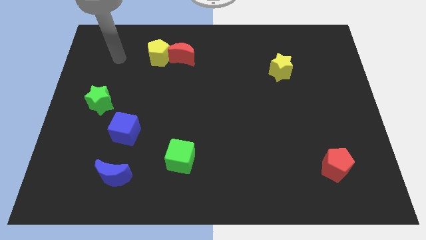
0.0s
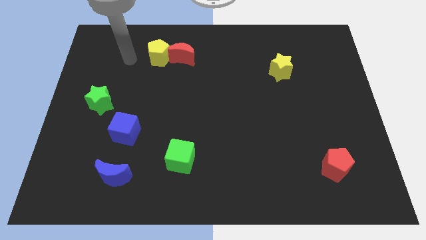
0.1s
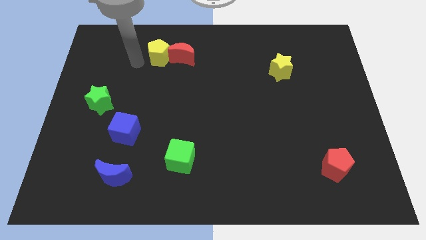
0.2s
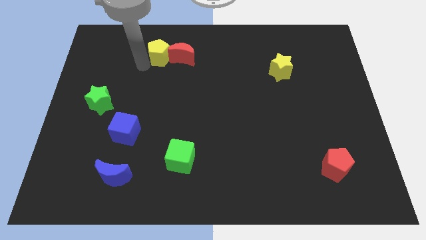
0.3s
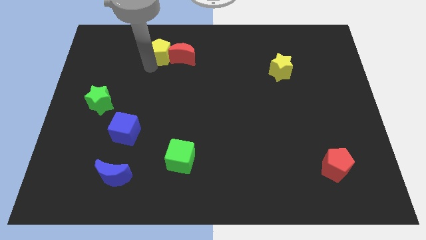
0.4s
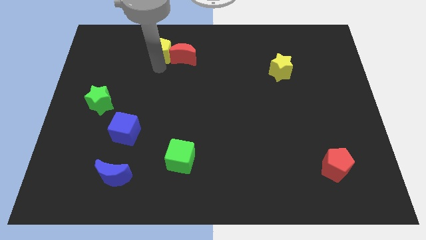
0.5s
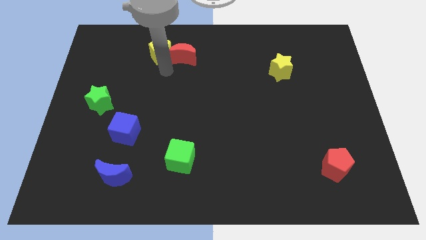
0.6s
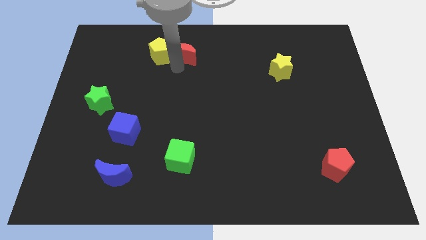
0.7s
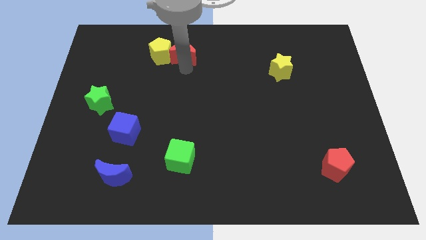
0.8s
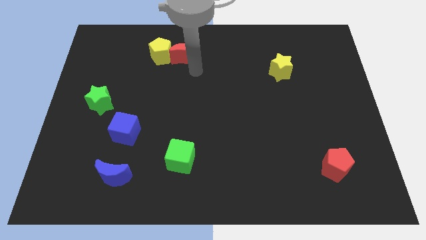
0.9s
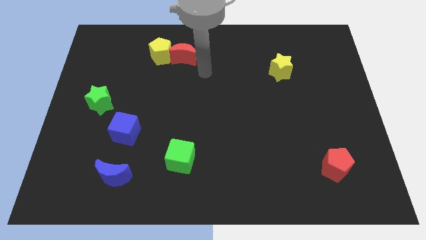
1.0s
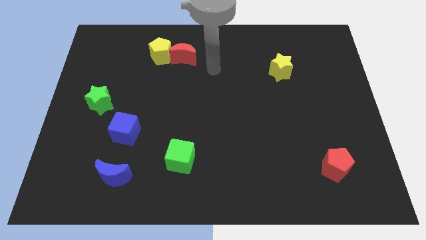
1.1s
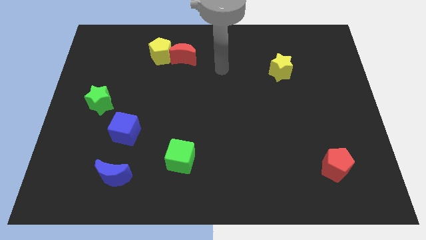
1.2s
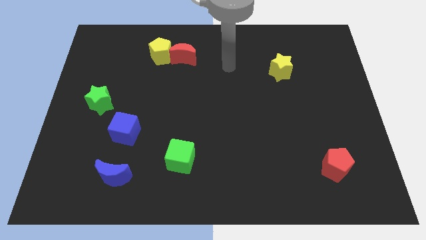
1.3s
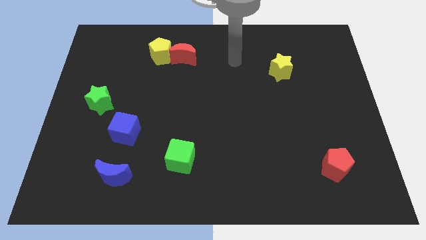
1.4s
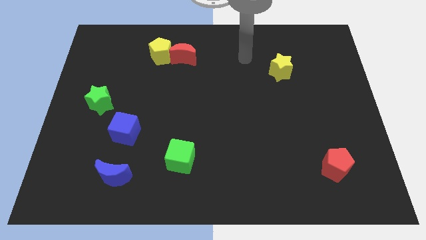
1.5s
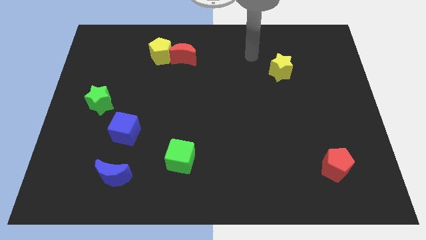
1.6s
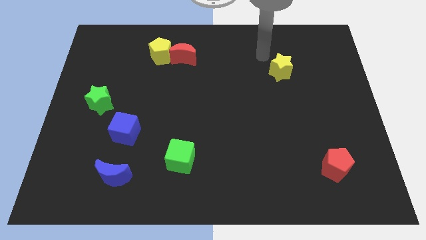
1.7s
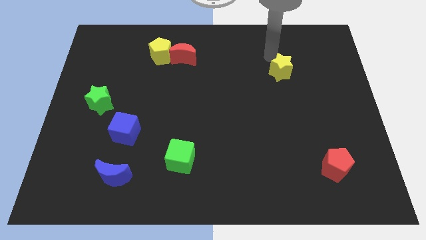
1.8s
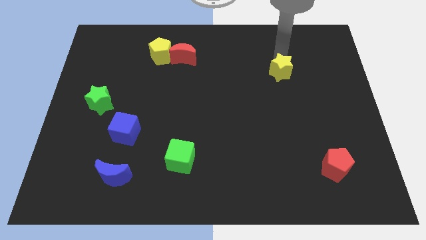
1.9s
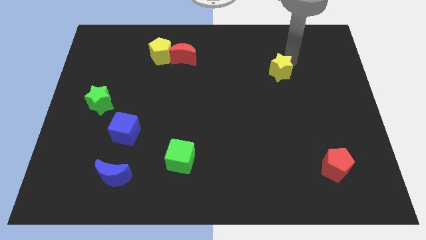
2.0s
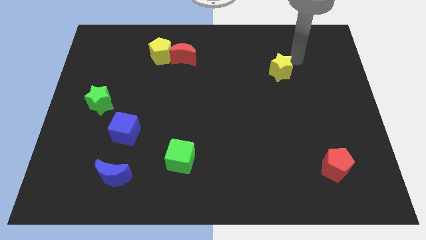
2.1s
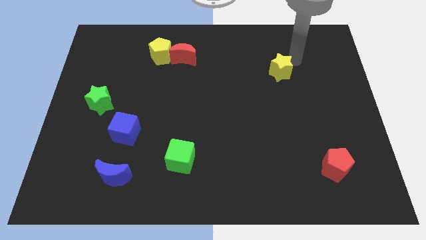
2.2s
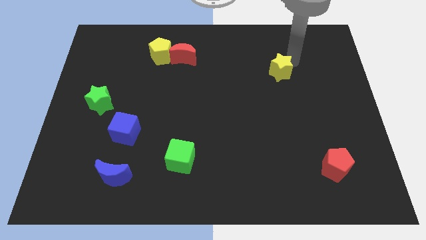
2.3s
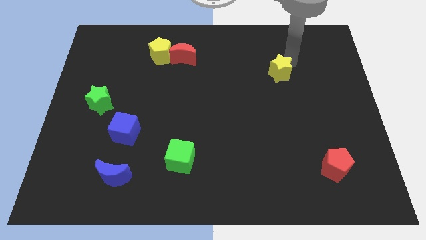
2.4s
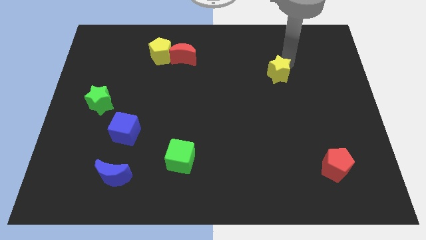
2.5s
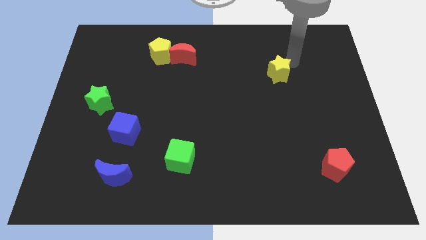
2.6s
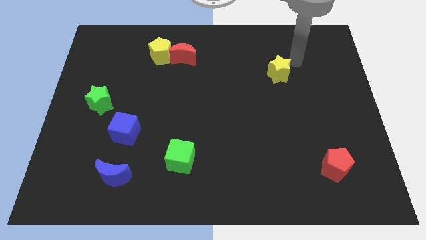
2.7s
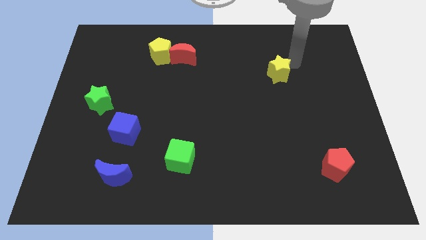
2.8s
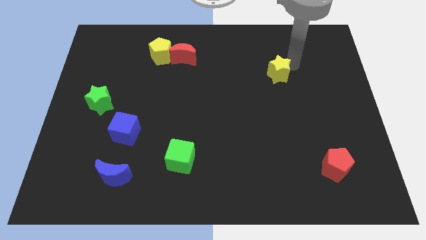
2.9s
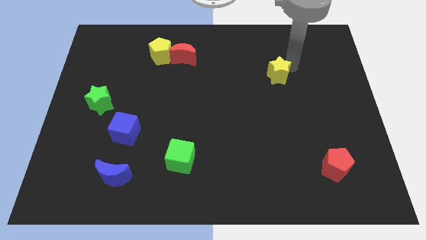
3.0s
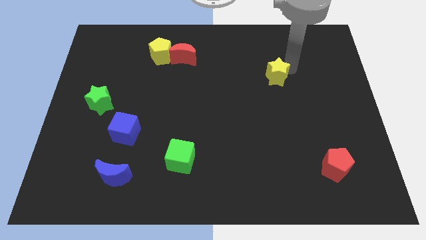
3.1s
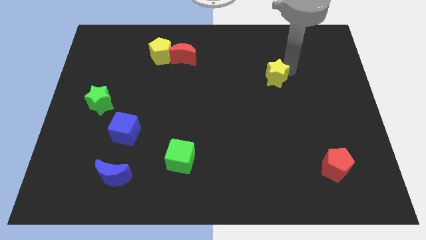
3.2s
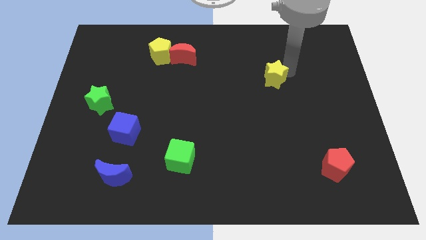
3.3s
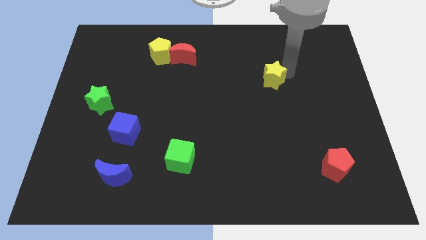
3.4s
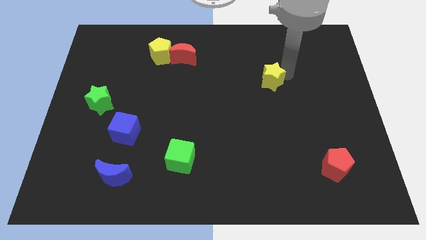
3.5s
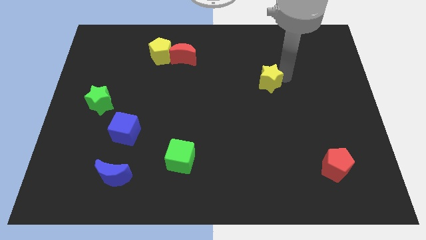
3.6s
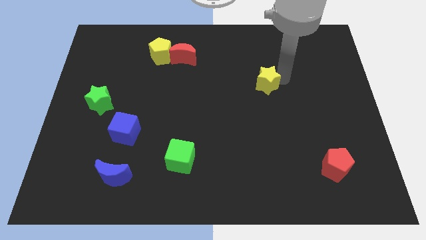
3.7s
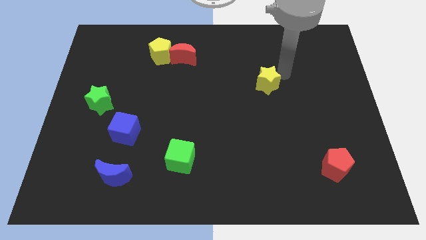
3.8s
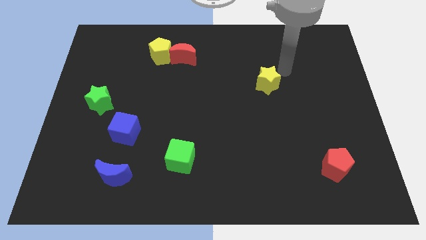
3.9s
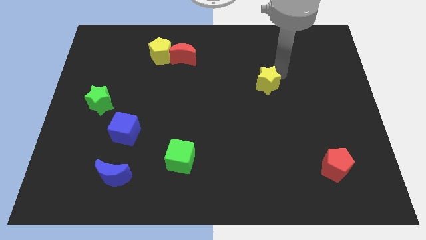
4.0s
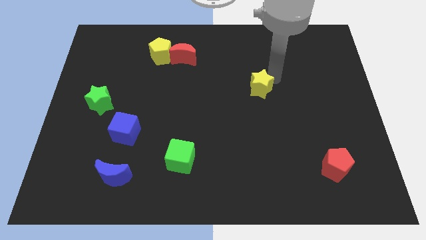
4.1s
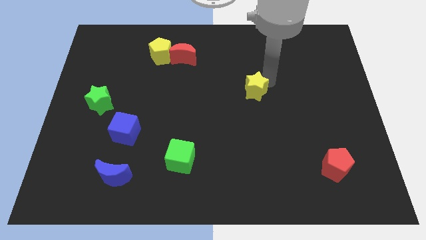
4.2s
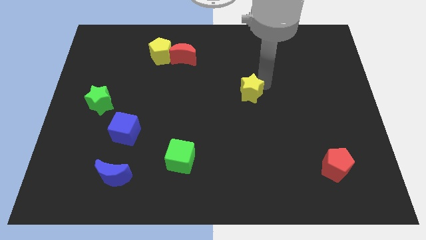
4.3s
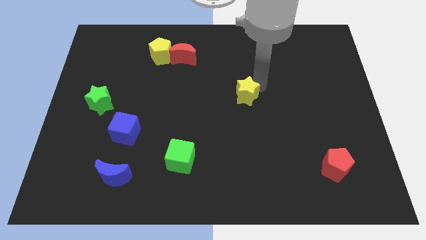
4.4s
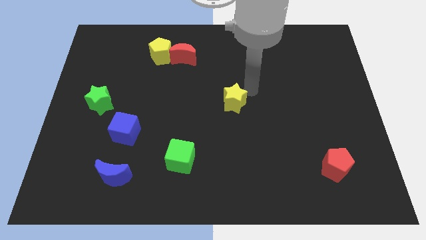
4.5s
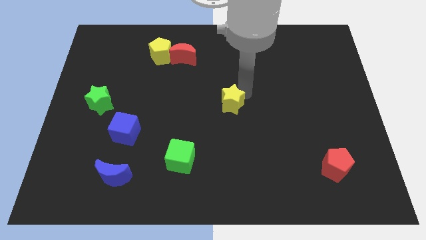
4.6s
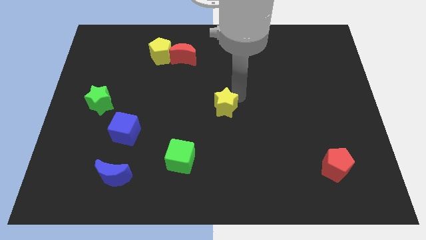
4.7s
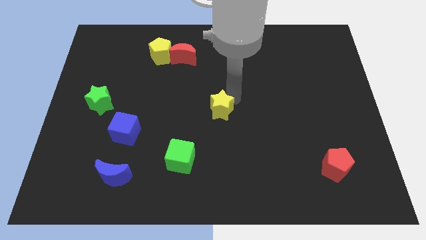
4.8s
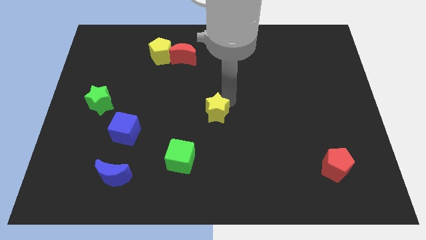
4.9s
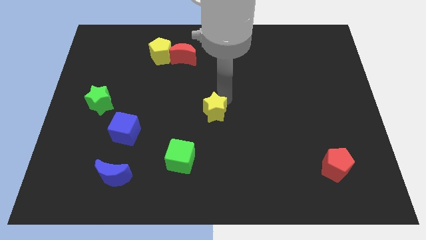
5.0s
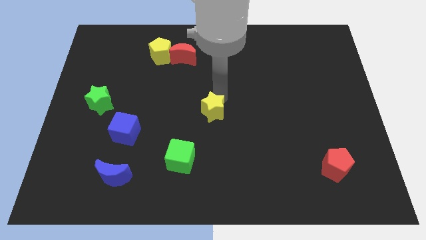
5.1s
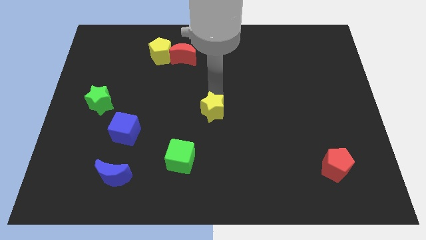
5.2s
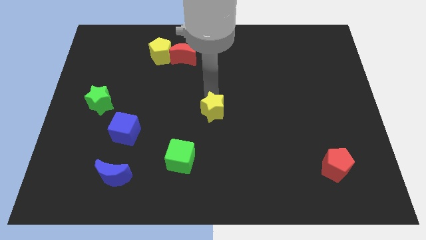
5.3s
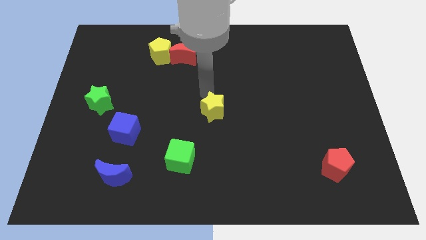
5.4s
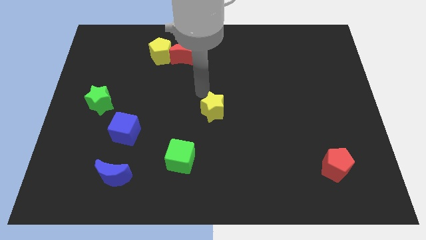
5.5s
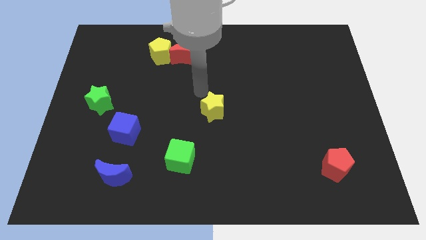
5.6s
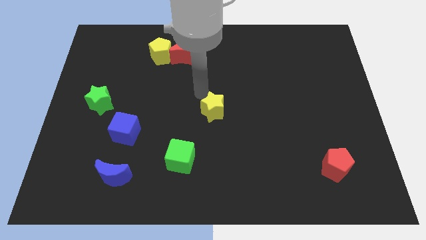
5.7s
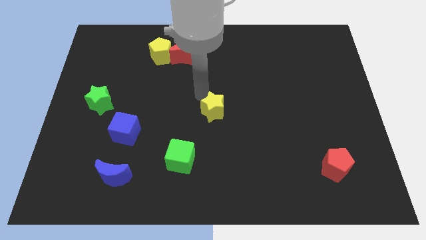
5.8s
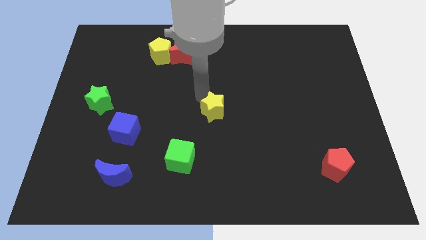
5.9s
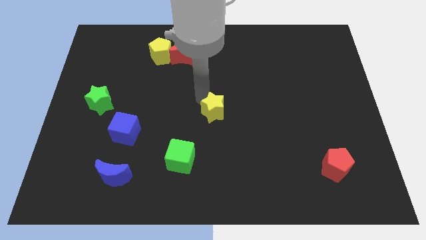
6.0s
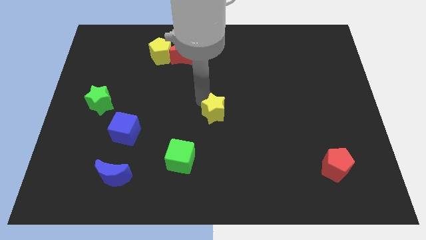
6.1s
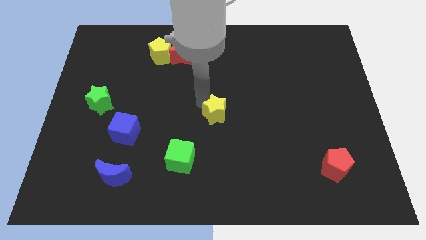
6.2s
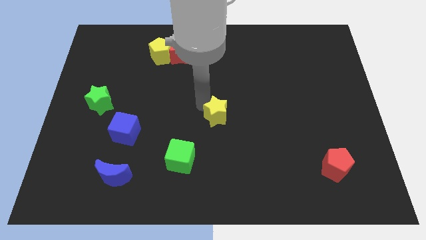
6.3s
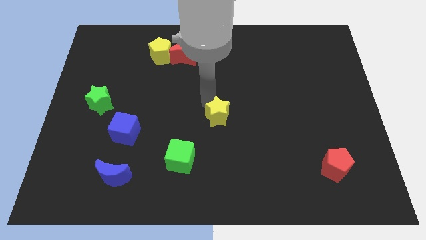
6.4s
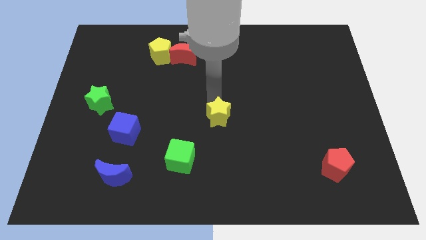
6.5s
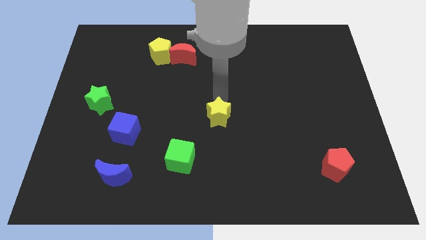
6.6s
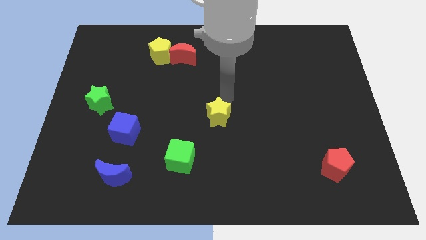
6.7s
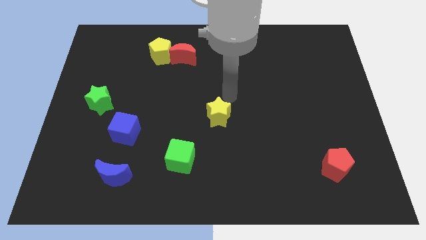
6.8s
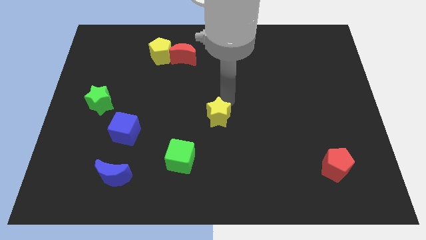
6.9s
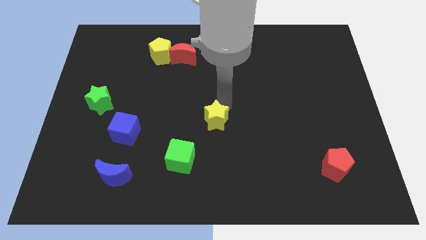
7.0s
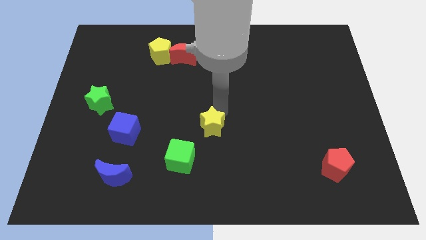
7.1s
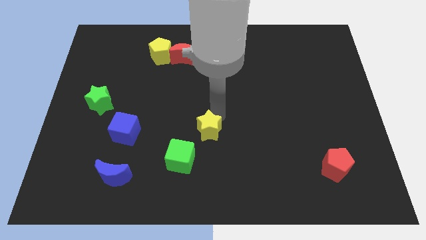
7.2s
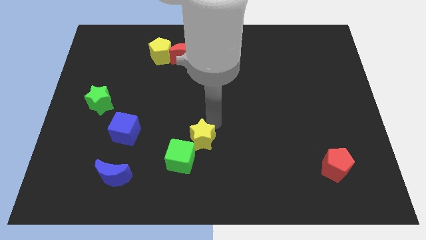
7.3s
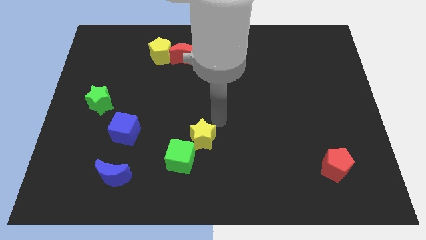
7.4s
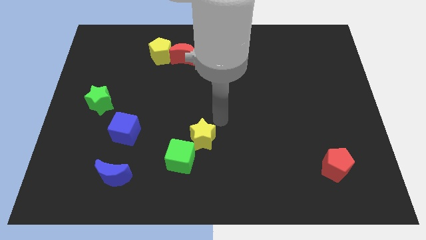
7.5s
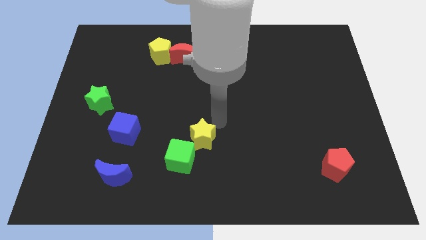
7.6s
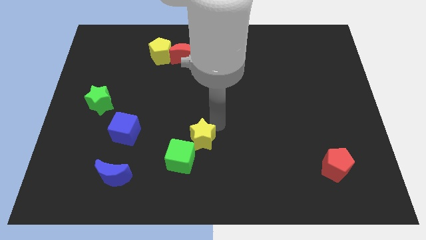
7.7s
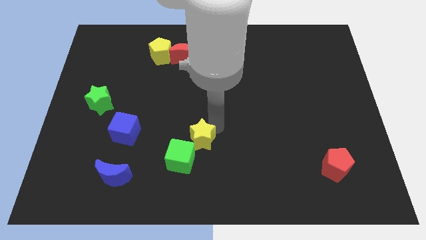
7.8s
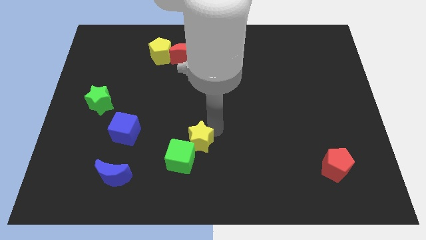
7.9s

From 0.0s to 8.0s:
slide the yellow star close to the green cube
